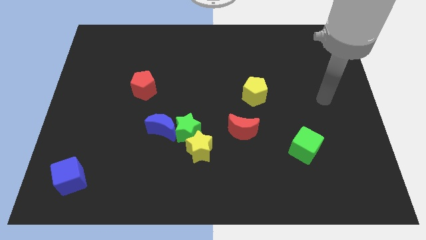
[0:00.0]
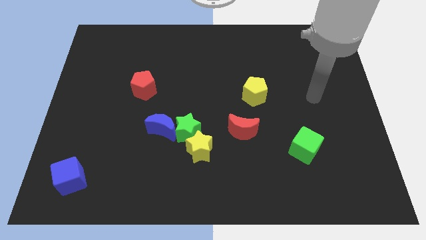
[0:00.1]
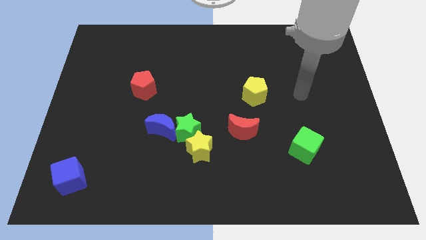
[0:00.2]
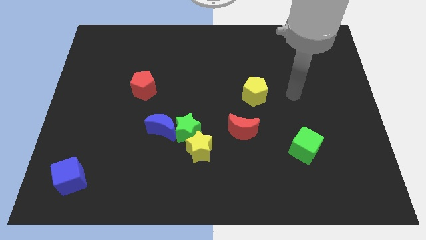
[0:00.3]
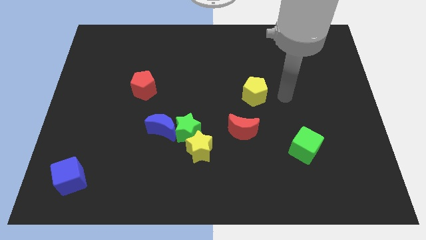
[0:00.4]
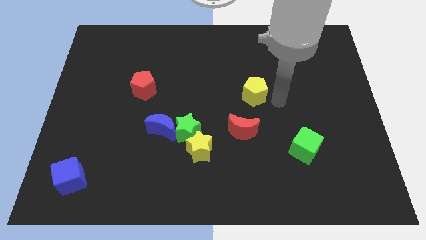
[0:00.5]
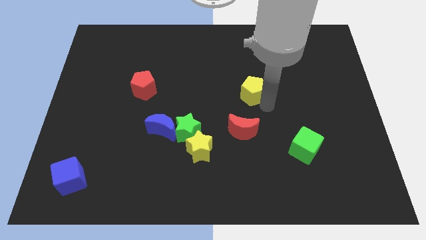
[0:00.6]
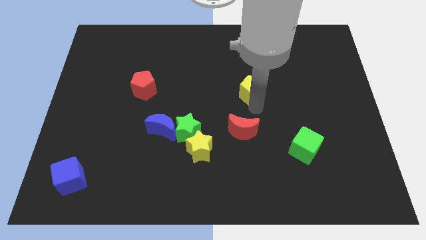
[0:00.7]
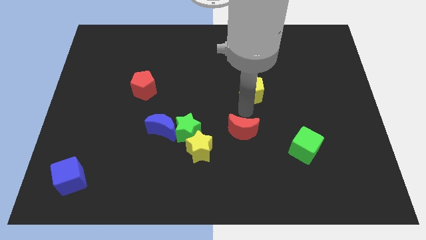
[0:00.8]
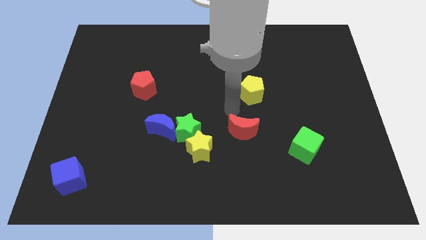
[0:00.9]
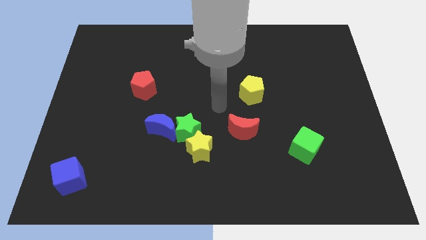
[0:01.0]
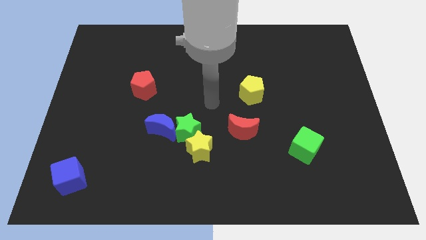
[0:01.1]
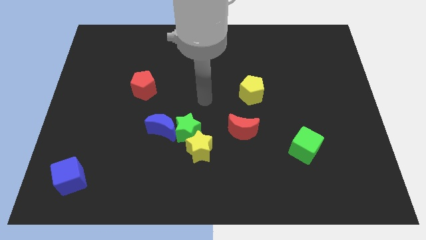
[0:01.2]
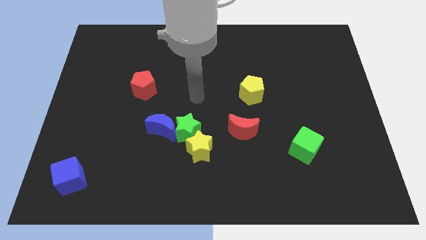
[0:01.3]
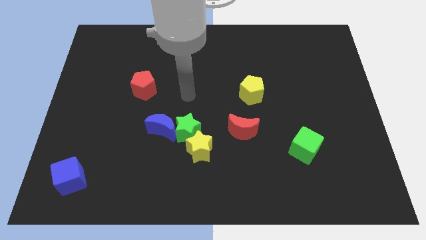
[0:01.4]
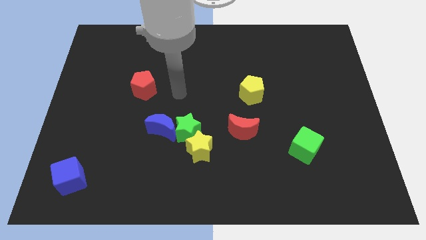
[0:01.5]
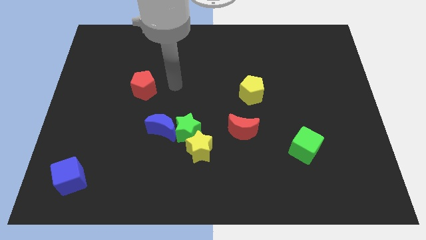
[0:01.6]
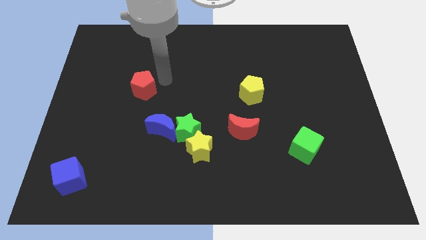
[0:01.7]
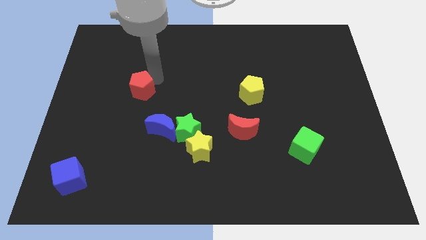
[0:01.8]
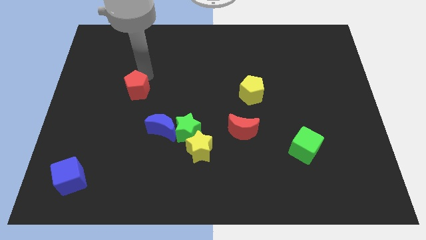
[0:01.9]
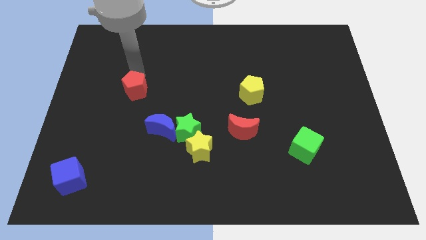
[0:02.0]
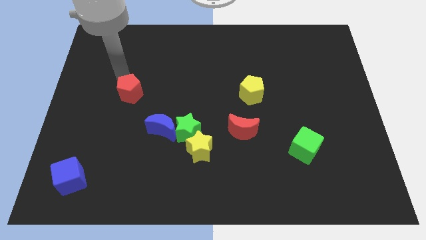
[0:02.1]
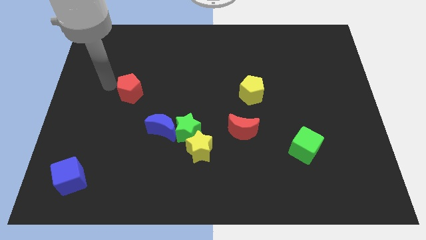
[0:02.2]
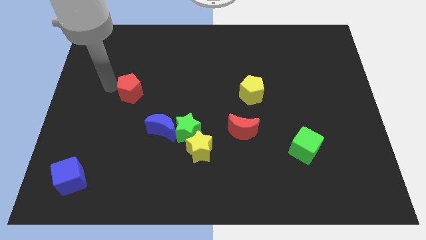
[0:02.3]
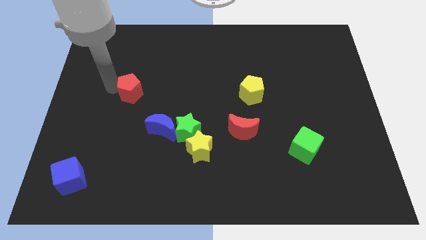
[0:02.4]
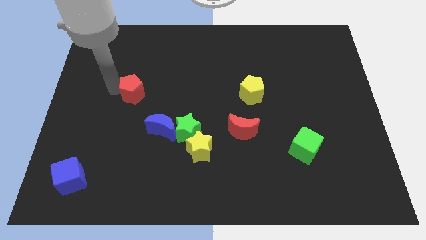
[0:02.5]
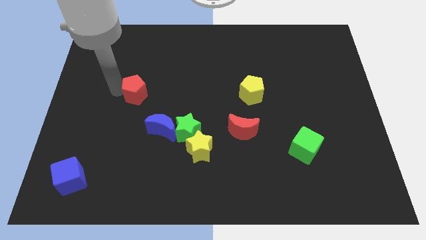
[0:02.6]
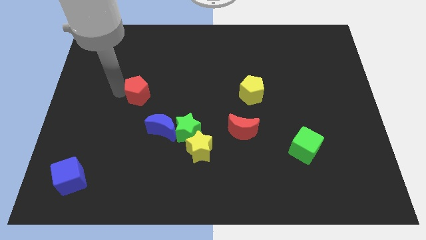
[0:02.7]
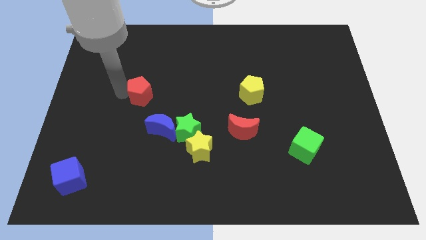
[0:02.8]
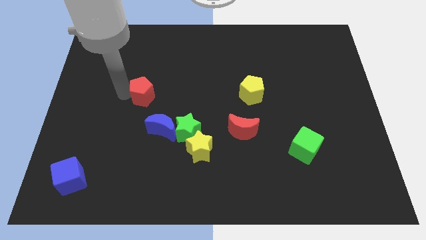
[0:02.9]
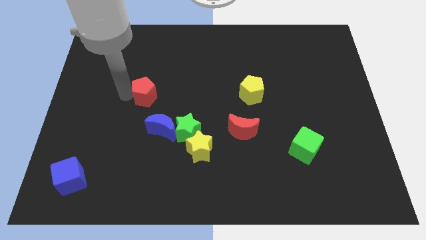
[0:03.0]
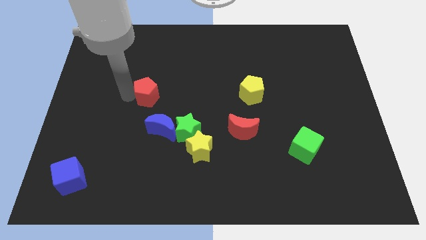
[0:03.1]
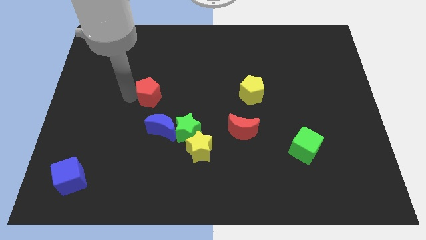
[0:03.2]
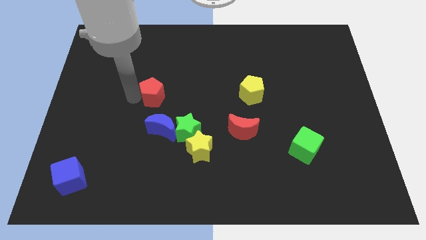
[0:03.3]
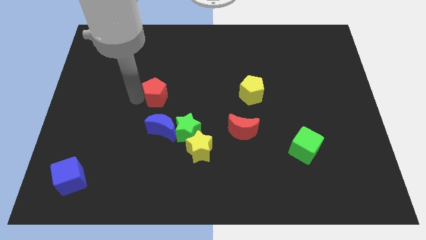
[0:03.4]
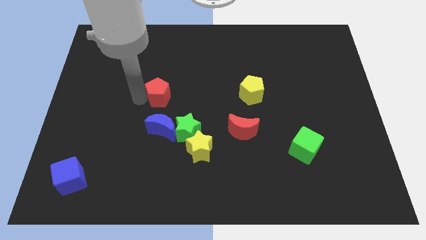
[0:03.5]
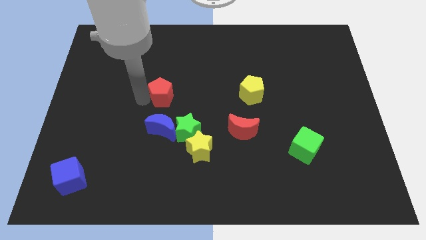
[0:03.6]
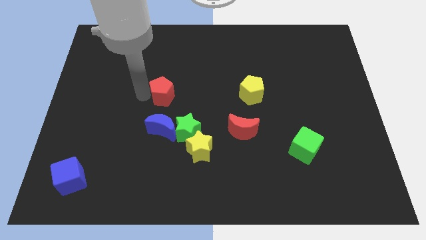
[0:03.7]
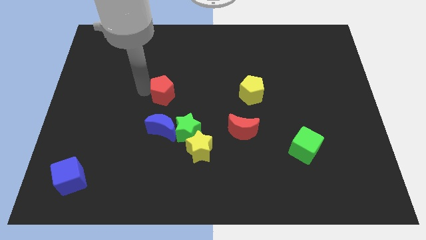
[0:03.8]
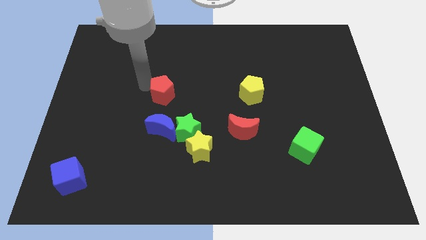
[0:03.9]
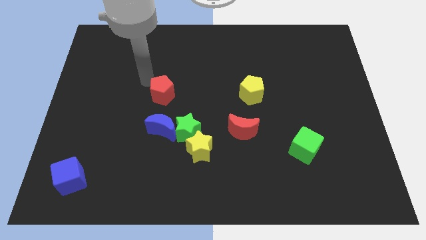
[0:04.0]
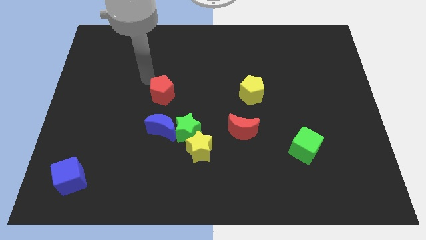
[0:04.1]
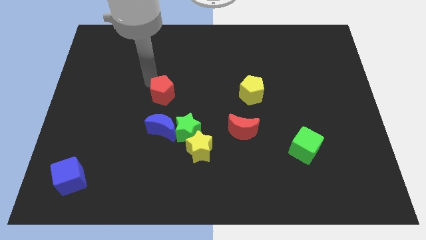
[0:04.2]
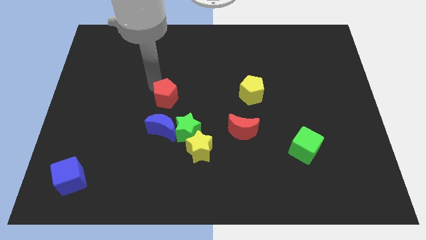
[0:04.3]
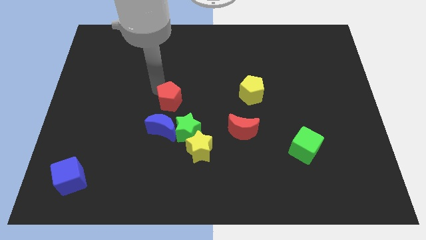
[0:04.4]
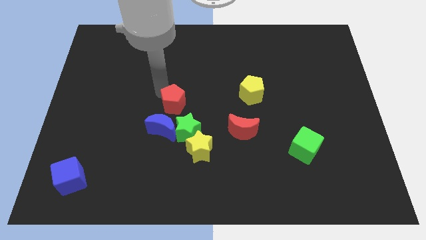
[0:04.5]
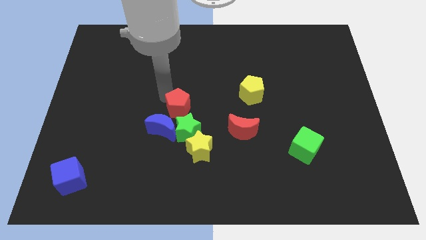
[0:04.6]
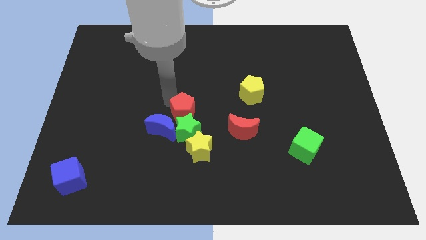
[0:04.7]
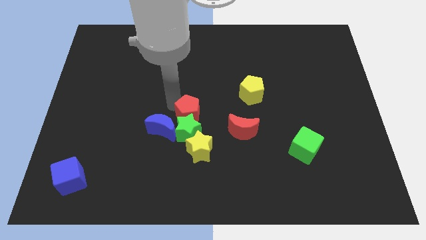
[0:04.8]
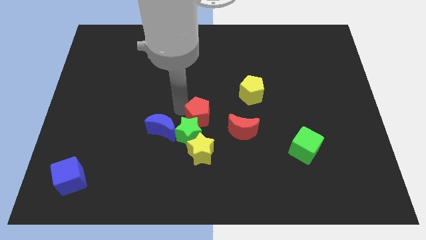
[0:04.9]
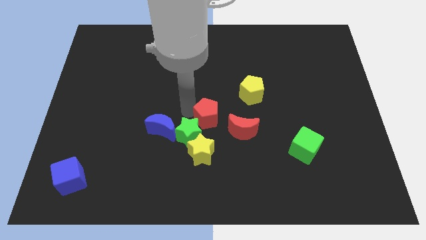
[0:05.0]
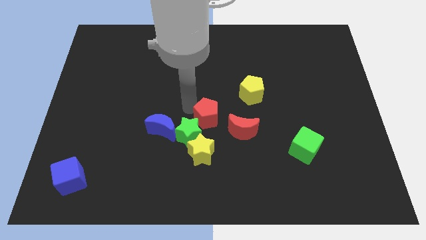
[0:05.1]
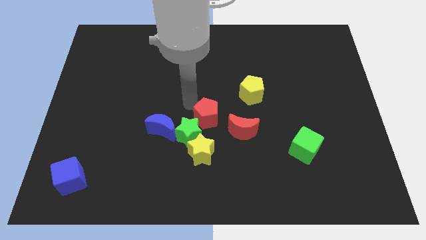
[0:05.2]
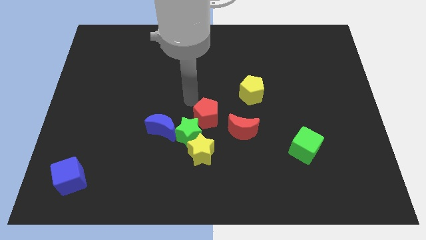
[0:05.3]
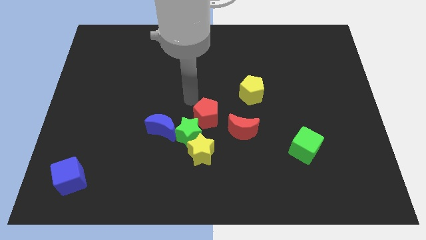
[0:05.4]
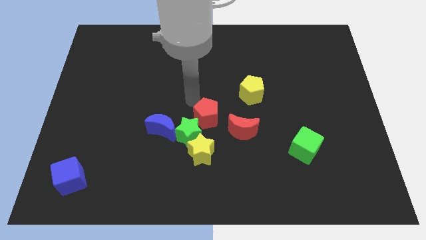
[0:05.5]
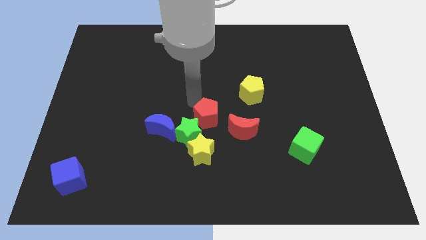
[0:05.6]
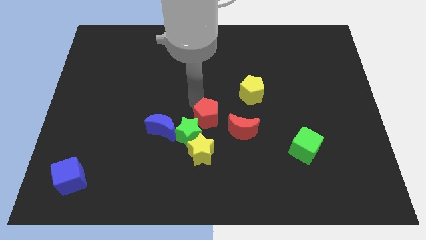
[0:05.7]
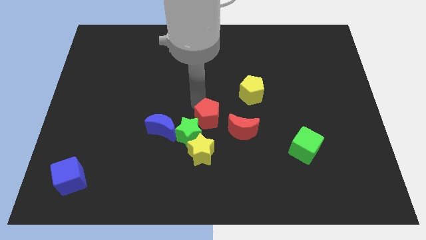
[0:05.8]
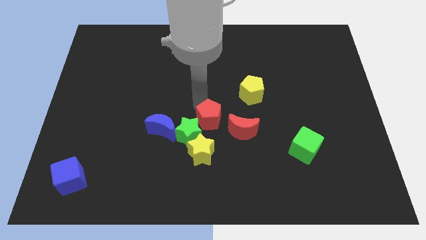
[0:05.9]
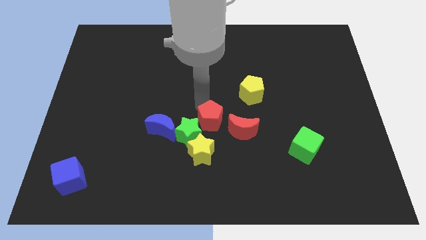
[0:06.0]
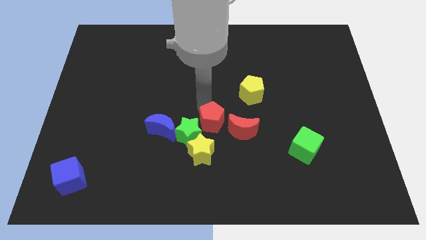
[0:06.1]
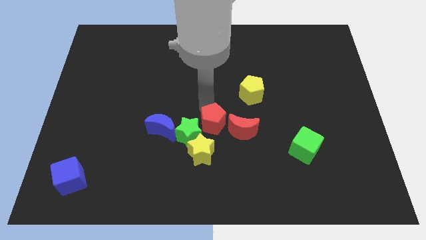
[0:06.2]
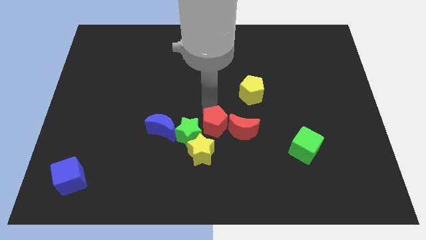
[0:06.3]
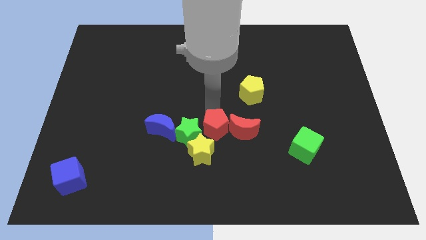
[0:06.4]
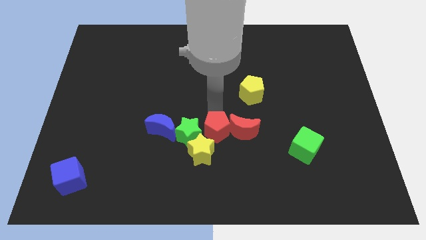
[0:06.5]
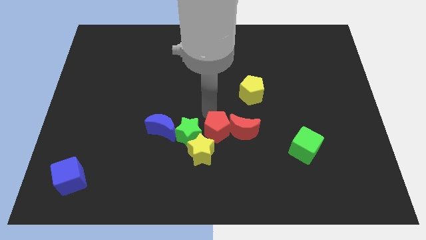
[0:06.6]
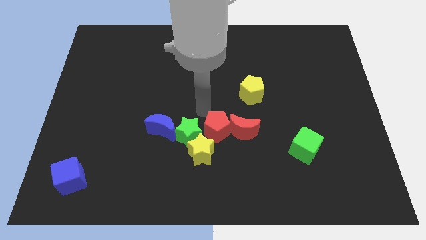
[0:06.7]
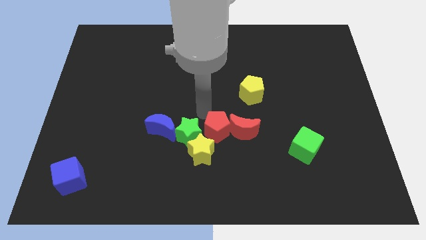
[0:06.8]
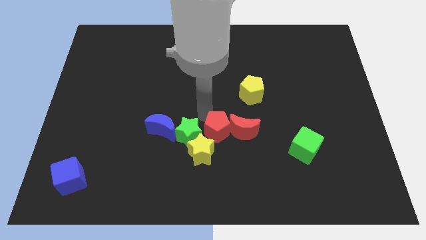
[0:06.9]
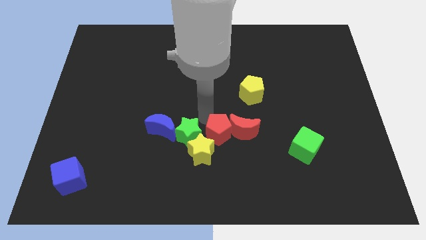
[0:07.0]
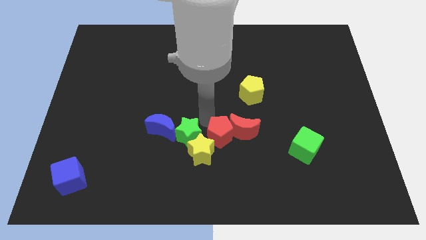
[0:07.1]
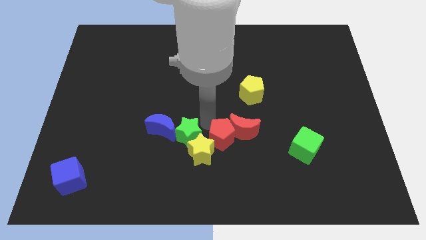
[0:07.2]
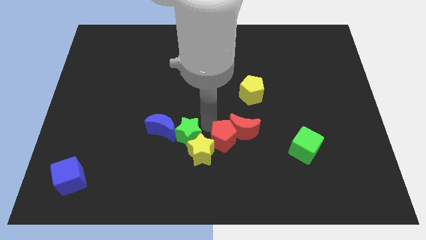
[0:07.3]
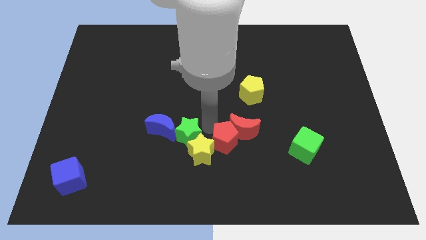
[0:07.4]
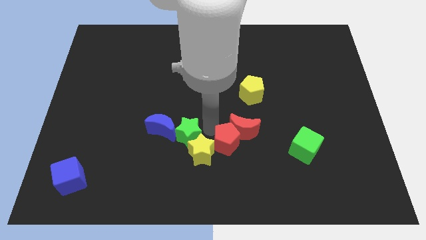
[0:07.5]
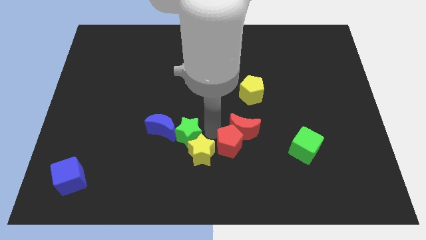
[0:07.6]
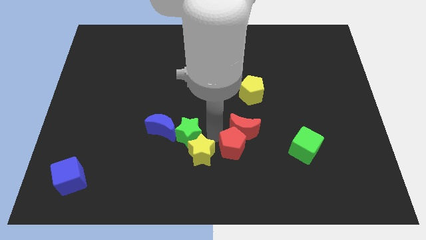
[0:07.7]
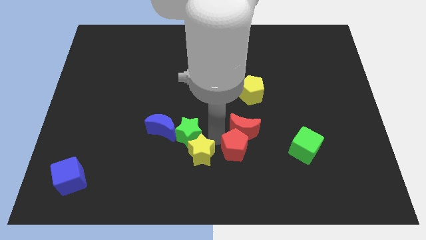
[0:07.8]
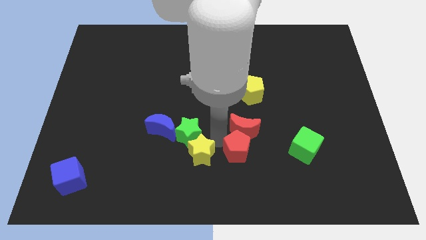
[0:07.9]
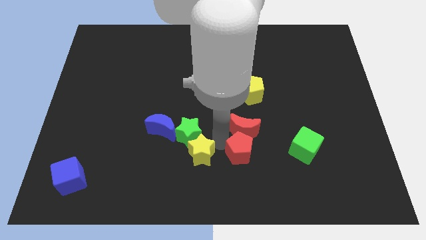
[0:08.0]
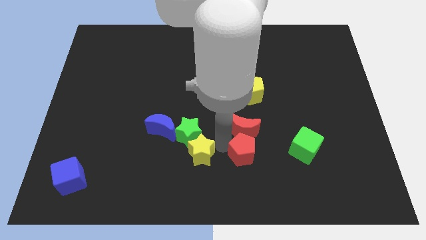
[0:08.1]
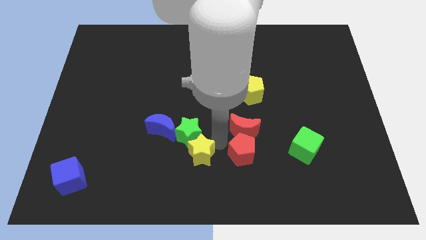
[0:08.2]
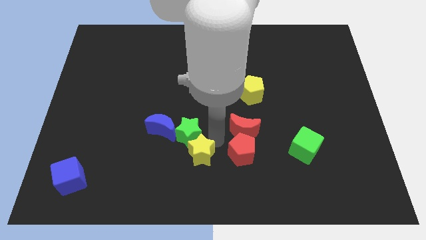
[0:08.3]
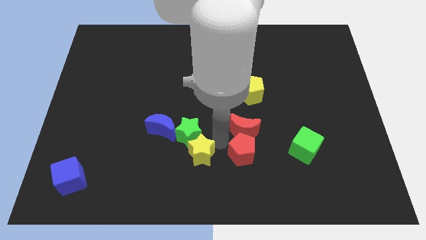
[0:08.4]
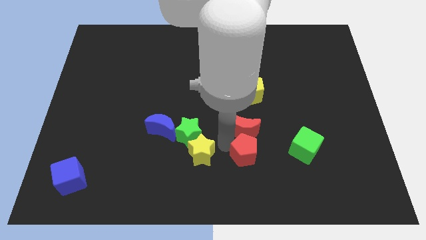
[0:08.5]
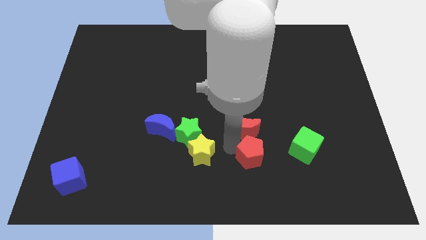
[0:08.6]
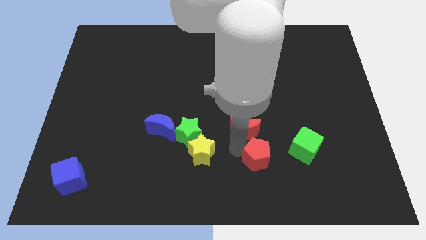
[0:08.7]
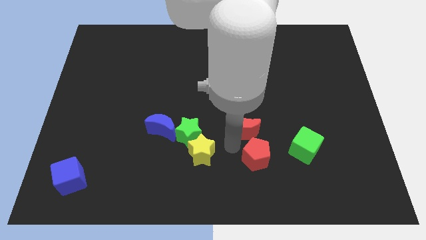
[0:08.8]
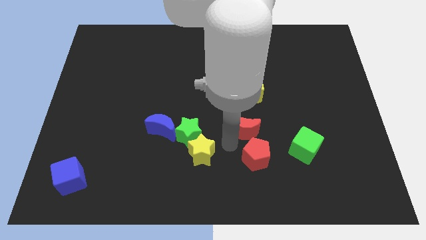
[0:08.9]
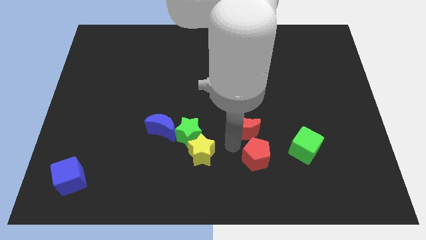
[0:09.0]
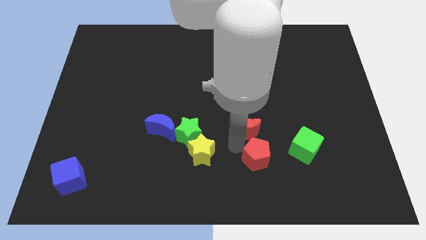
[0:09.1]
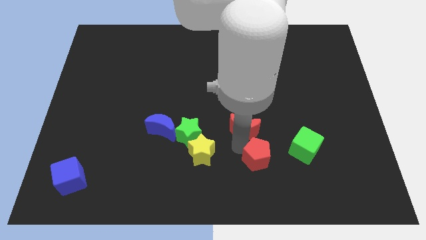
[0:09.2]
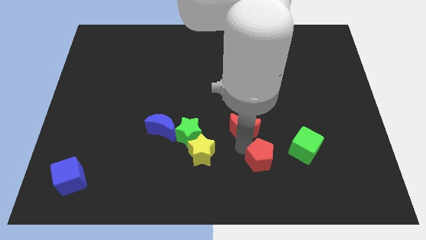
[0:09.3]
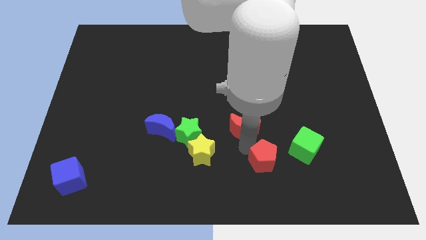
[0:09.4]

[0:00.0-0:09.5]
put the red pentagon diagonally down and to the left of the green cube
